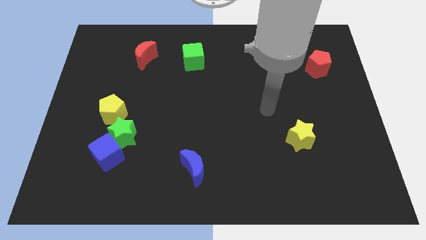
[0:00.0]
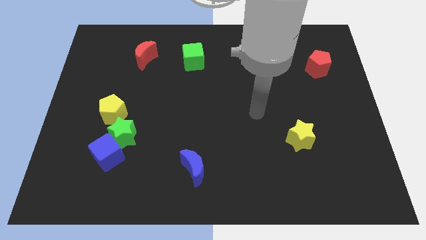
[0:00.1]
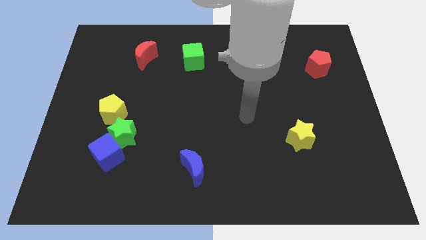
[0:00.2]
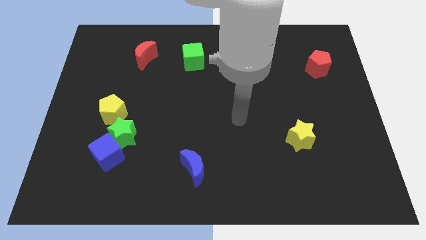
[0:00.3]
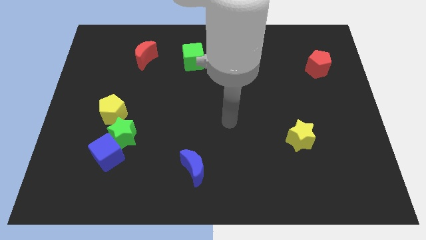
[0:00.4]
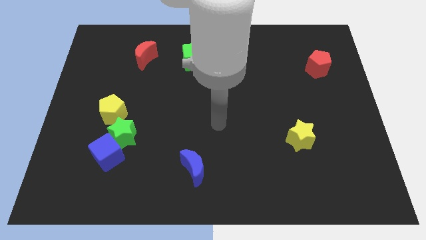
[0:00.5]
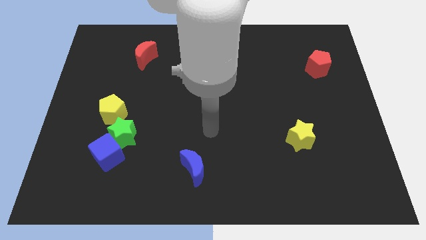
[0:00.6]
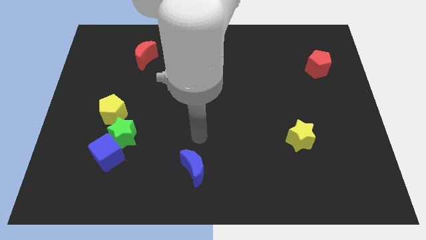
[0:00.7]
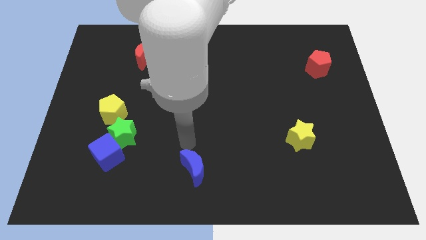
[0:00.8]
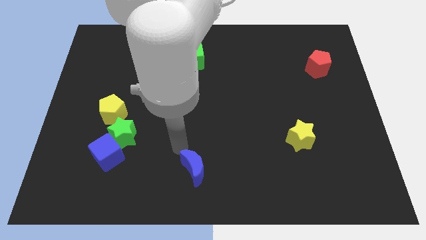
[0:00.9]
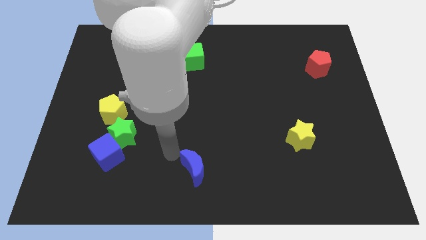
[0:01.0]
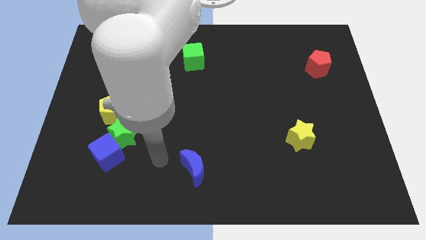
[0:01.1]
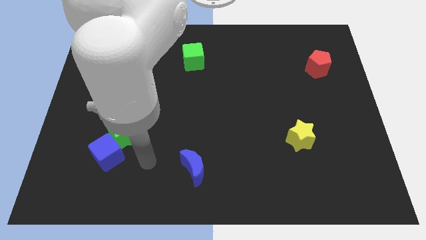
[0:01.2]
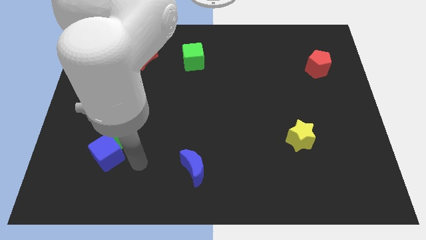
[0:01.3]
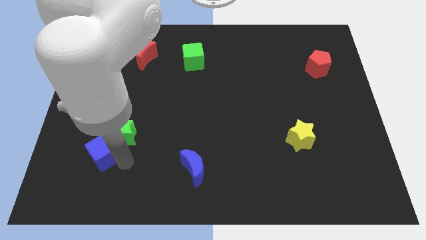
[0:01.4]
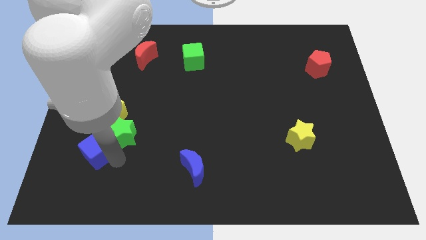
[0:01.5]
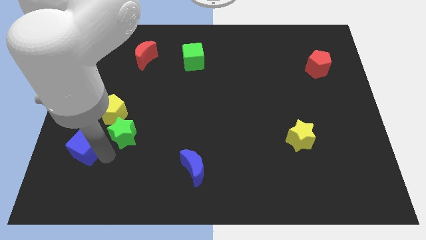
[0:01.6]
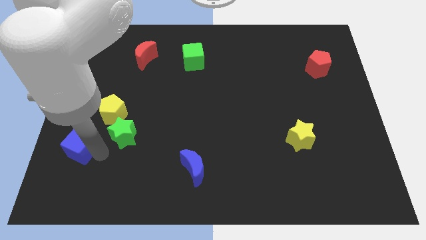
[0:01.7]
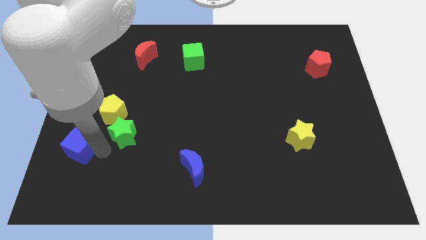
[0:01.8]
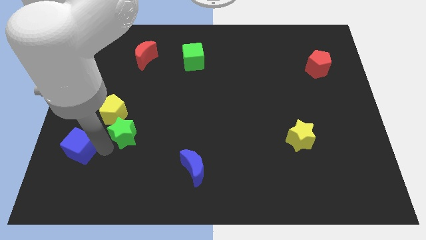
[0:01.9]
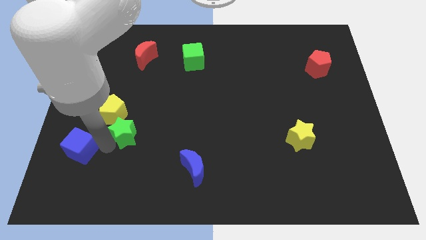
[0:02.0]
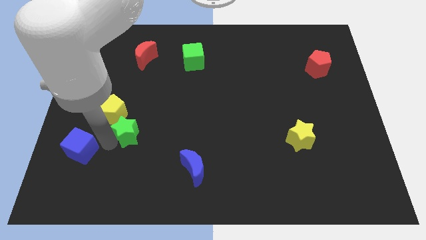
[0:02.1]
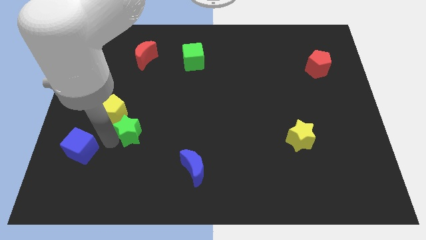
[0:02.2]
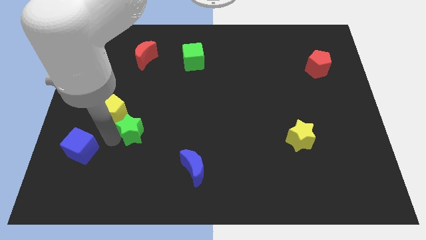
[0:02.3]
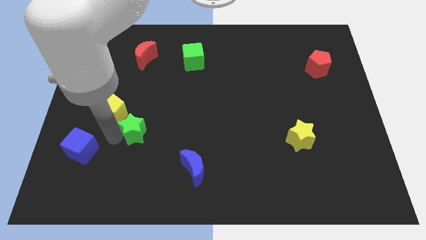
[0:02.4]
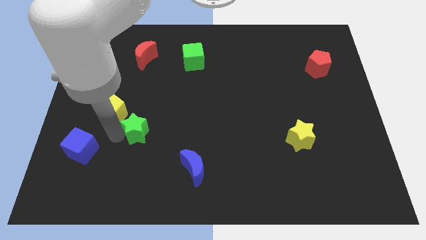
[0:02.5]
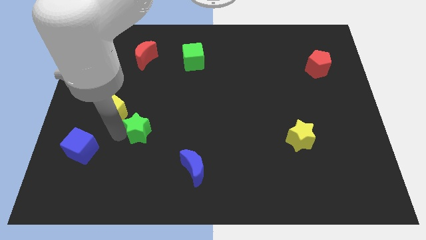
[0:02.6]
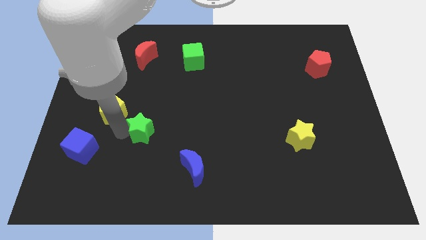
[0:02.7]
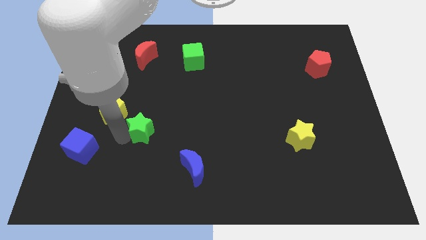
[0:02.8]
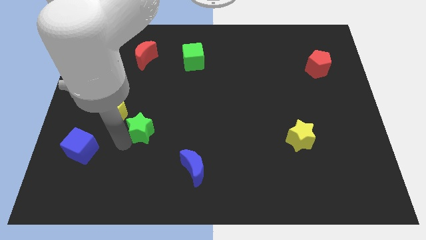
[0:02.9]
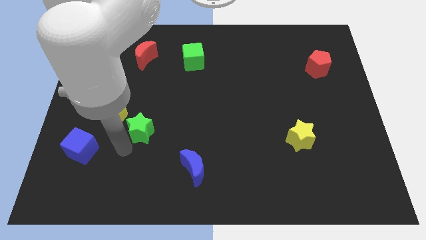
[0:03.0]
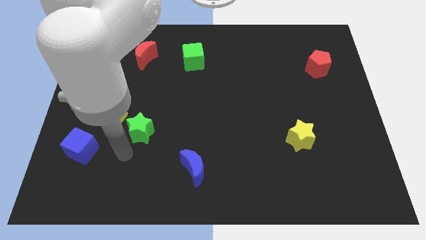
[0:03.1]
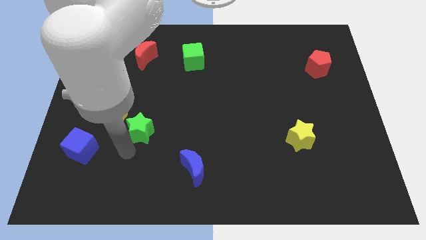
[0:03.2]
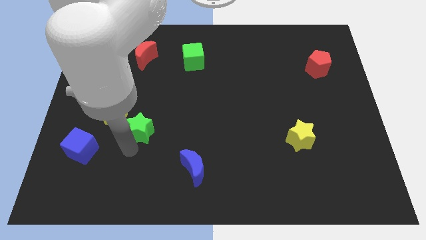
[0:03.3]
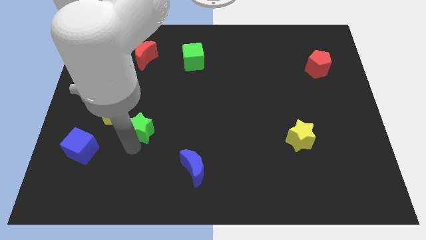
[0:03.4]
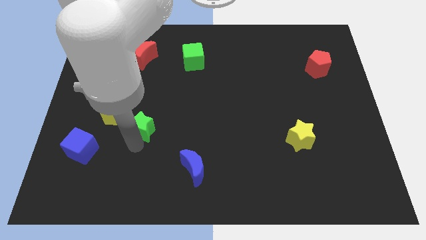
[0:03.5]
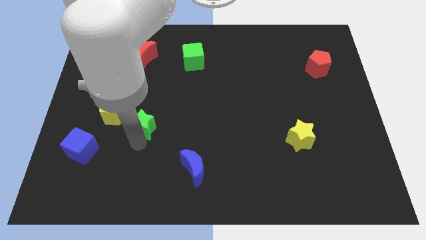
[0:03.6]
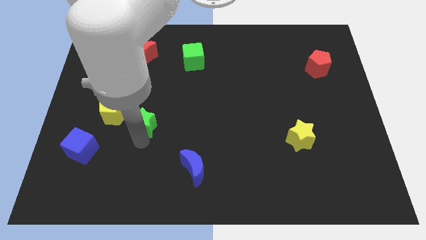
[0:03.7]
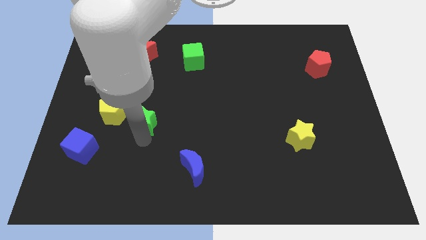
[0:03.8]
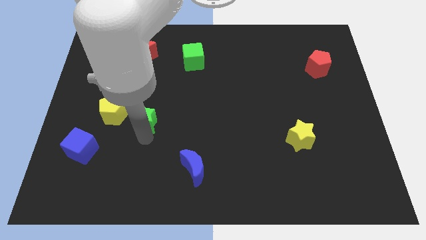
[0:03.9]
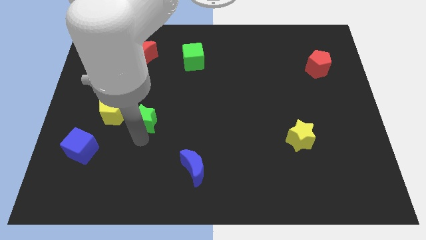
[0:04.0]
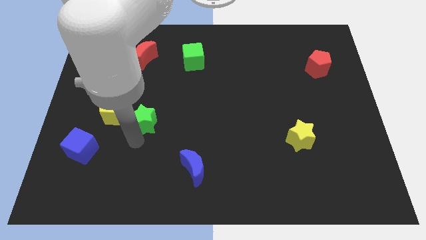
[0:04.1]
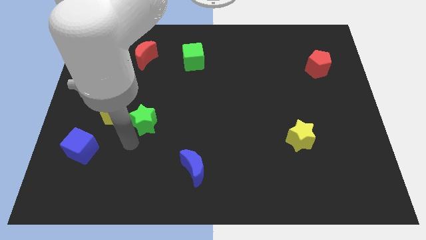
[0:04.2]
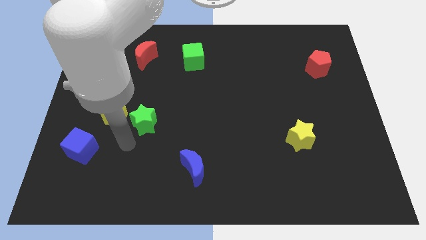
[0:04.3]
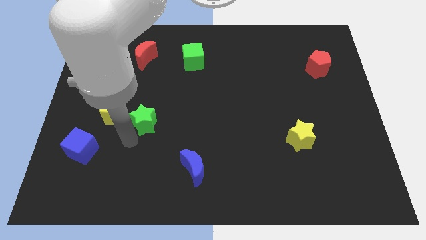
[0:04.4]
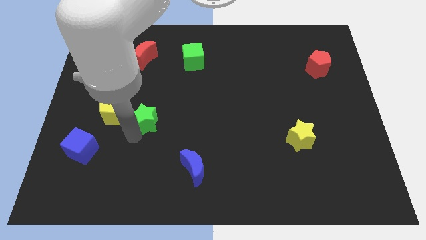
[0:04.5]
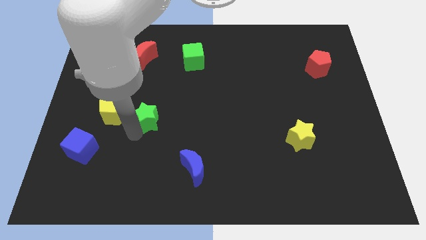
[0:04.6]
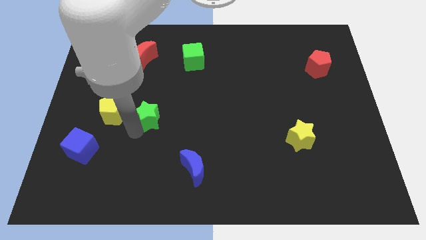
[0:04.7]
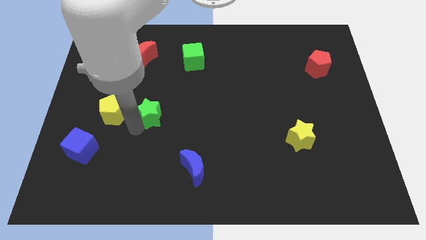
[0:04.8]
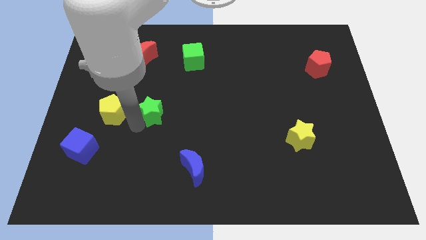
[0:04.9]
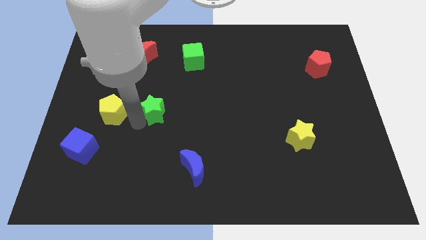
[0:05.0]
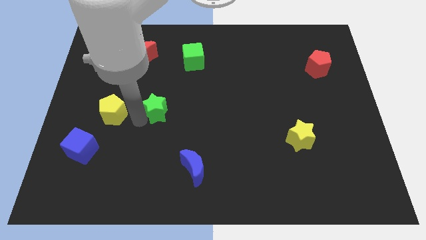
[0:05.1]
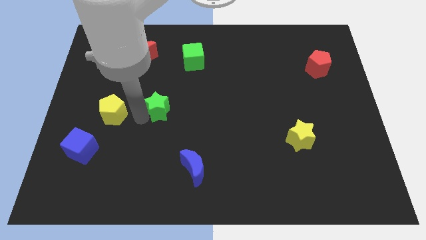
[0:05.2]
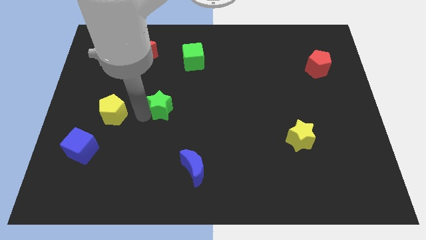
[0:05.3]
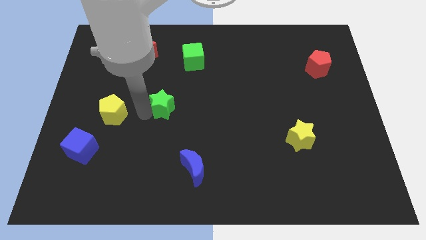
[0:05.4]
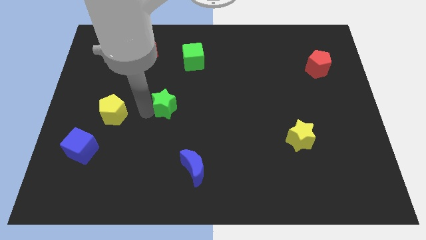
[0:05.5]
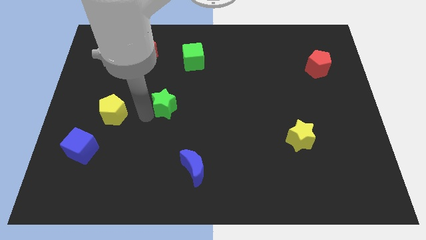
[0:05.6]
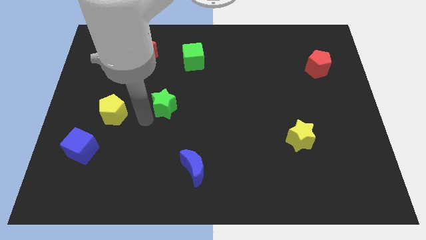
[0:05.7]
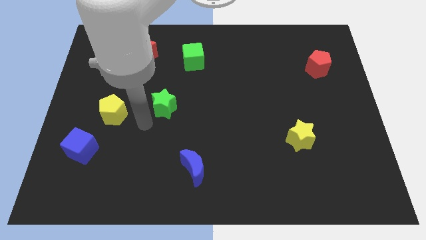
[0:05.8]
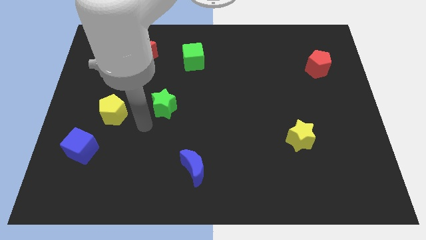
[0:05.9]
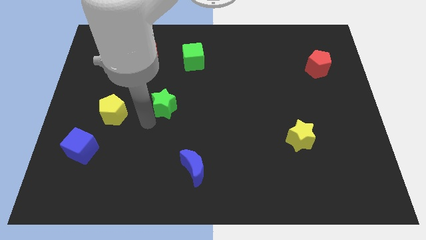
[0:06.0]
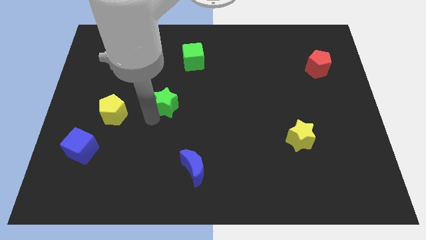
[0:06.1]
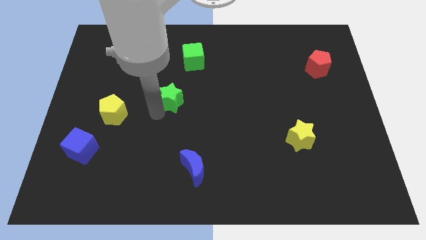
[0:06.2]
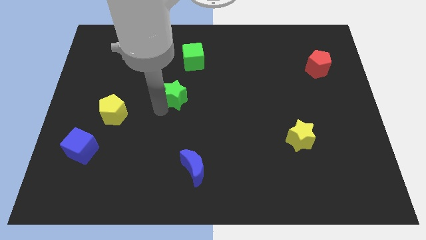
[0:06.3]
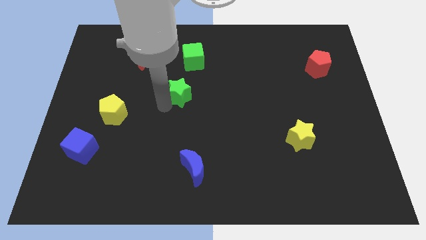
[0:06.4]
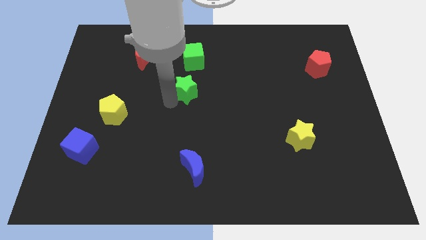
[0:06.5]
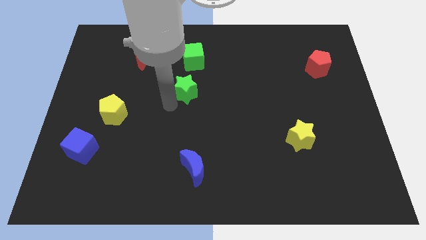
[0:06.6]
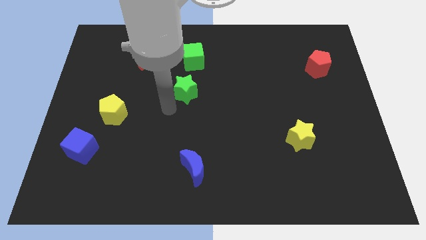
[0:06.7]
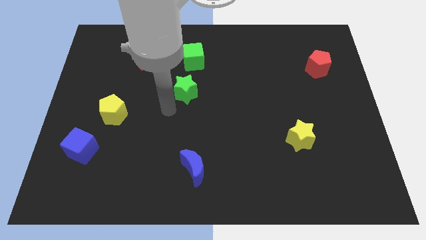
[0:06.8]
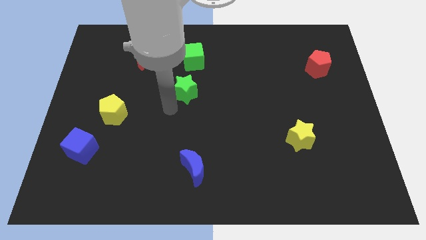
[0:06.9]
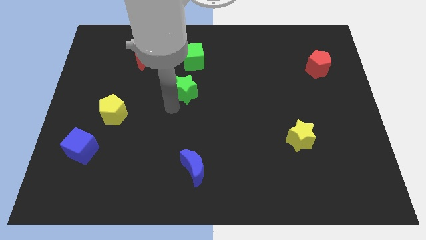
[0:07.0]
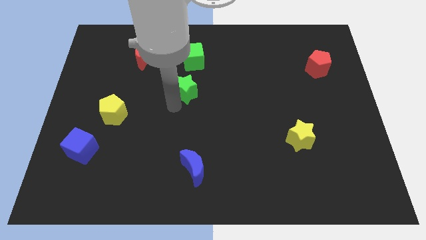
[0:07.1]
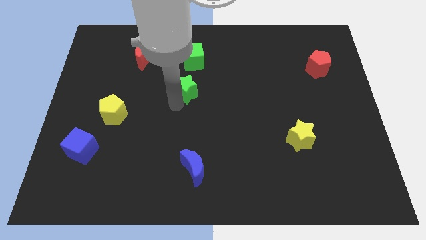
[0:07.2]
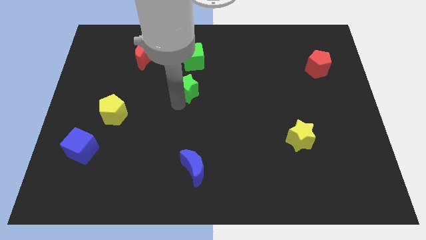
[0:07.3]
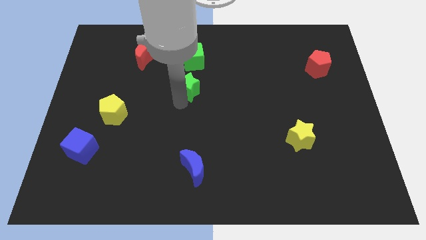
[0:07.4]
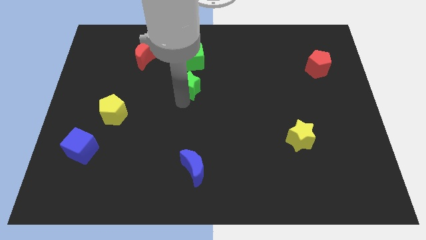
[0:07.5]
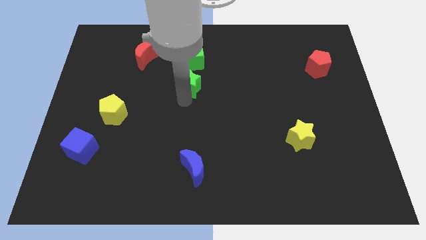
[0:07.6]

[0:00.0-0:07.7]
slide the green star diagonally up and to the right
